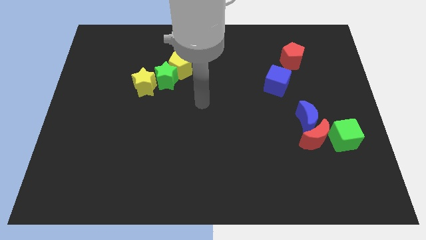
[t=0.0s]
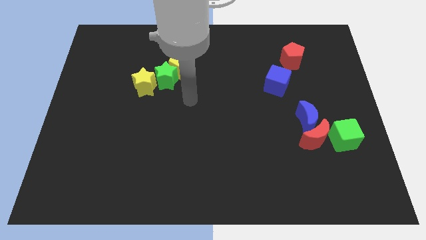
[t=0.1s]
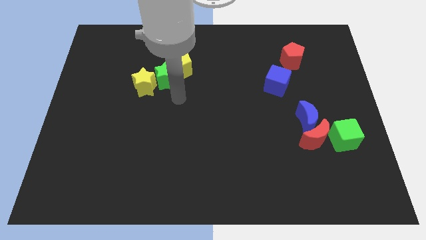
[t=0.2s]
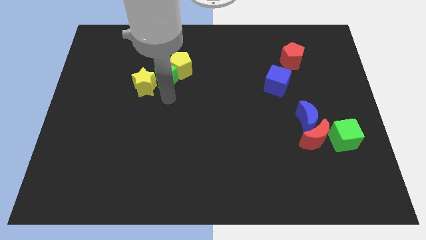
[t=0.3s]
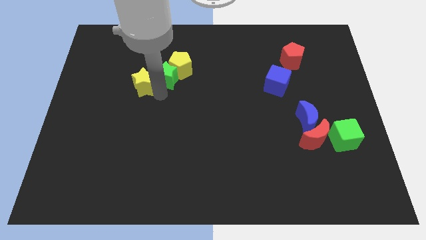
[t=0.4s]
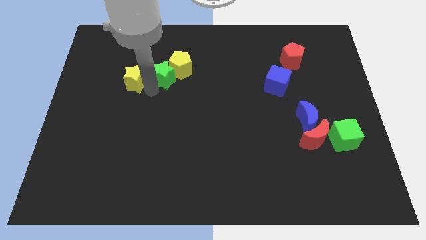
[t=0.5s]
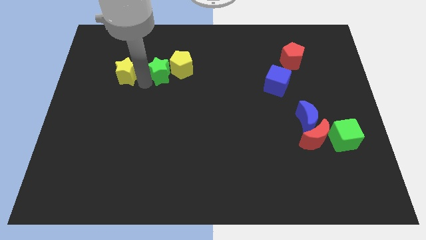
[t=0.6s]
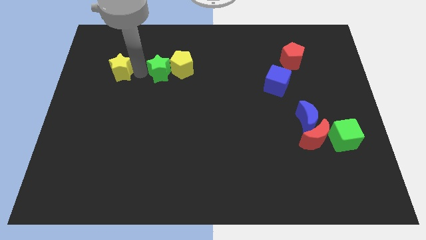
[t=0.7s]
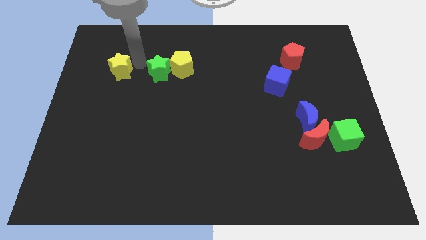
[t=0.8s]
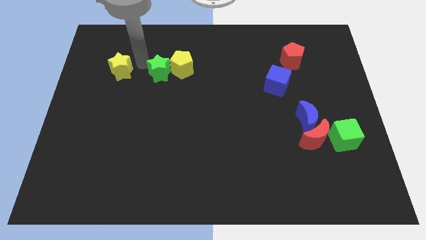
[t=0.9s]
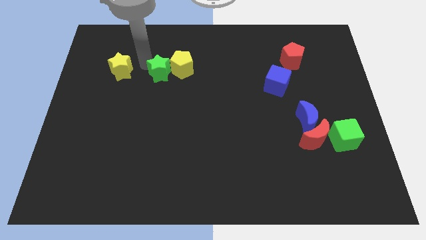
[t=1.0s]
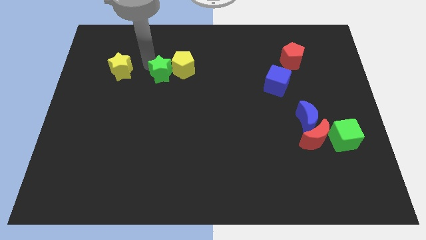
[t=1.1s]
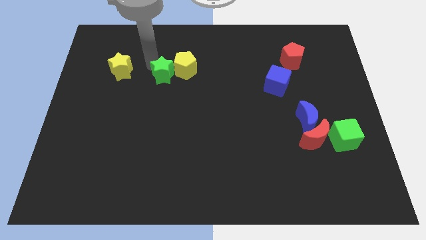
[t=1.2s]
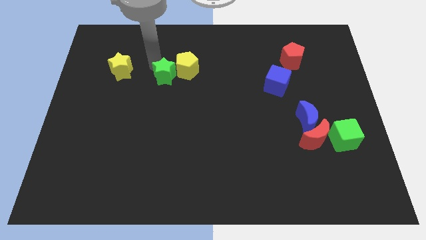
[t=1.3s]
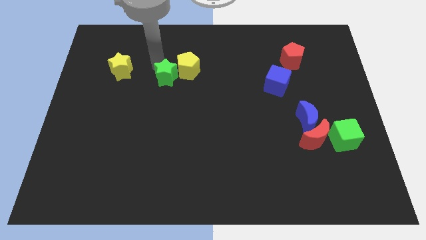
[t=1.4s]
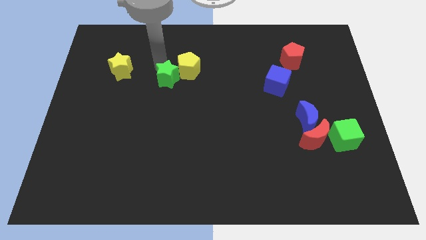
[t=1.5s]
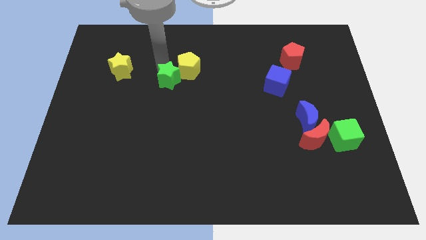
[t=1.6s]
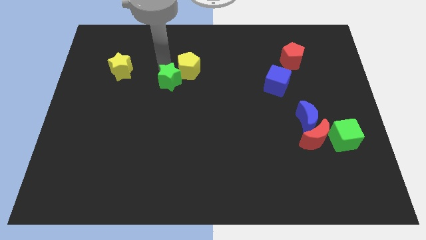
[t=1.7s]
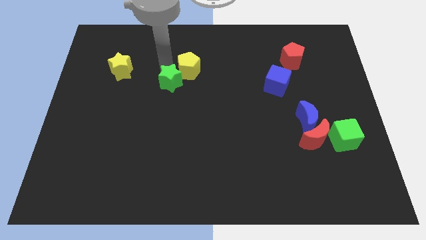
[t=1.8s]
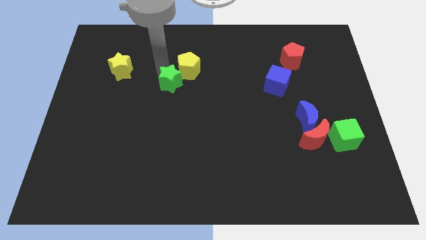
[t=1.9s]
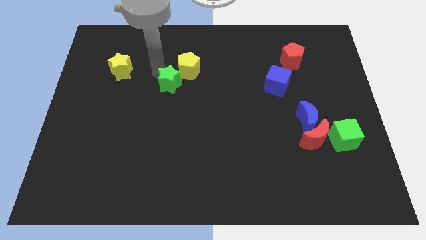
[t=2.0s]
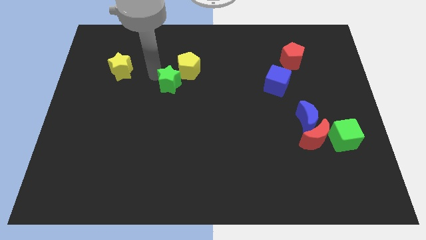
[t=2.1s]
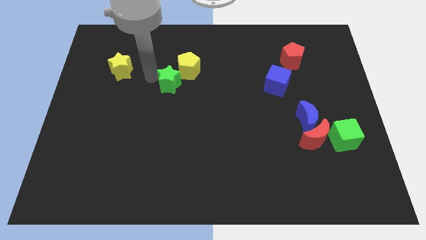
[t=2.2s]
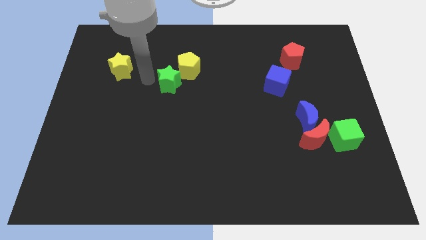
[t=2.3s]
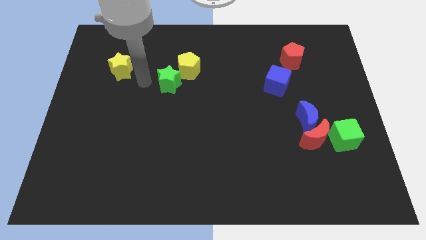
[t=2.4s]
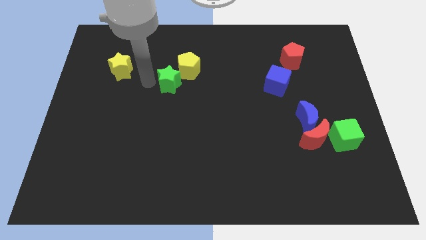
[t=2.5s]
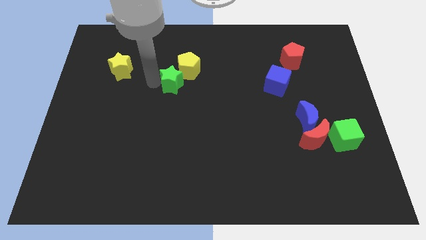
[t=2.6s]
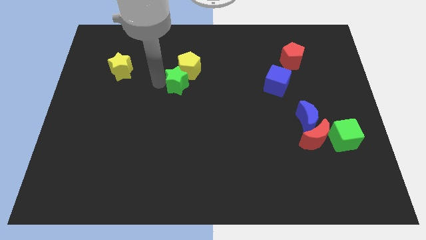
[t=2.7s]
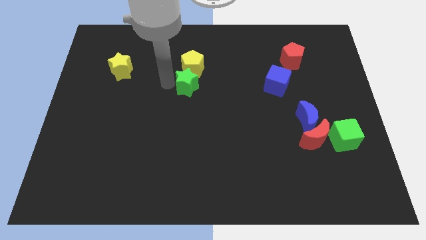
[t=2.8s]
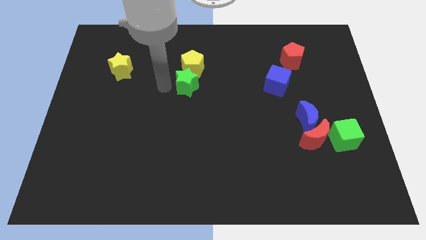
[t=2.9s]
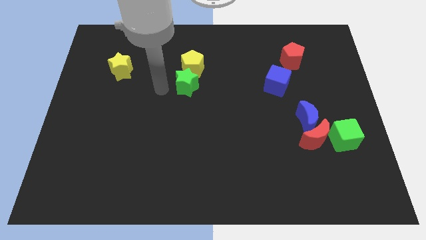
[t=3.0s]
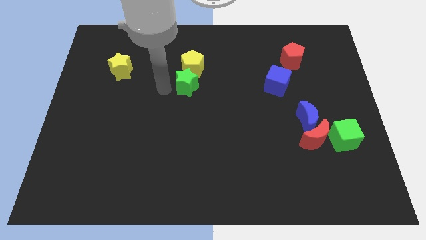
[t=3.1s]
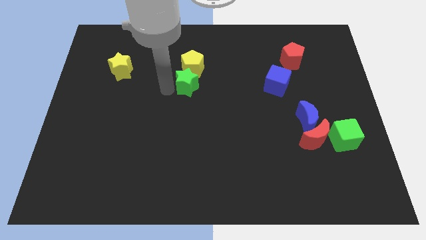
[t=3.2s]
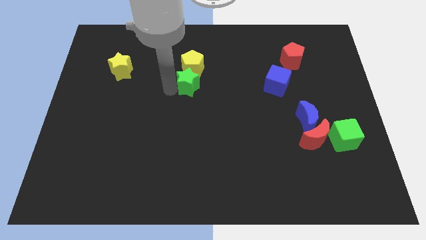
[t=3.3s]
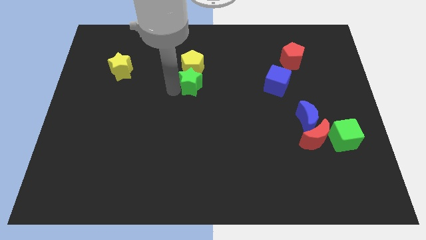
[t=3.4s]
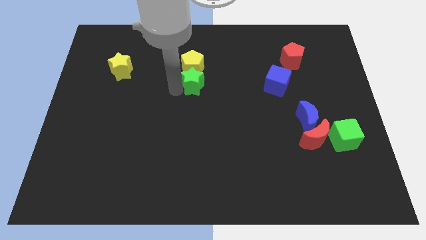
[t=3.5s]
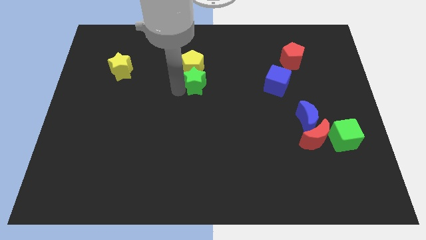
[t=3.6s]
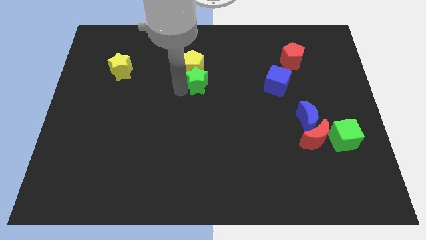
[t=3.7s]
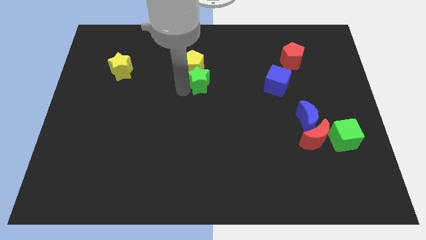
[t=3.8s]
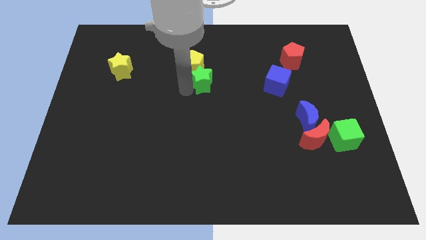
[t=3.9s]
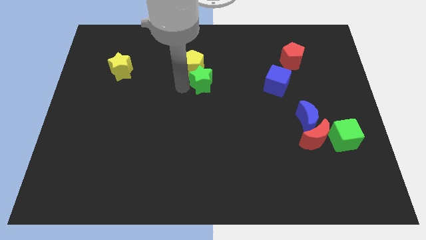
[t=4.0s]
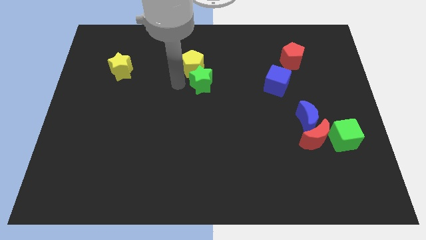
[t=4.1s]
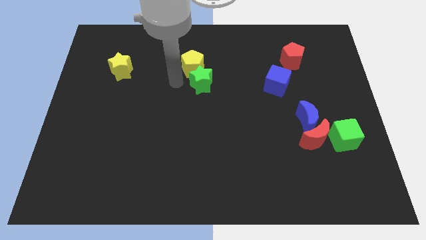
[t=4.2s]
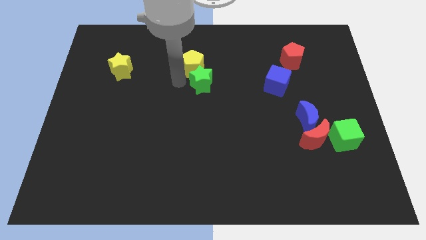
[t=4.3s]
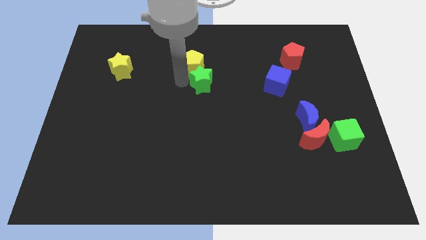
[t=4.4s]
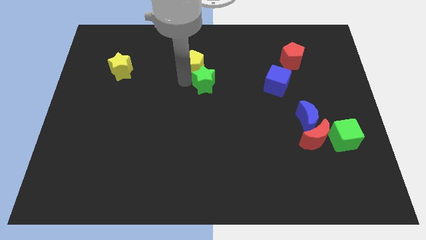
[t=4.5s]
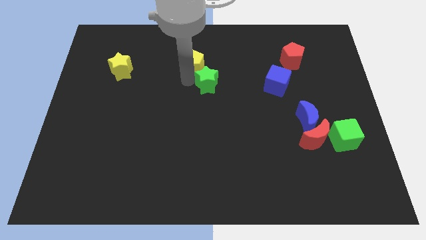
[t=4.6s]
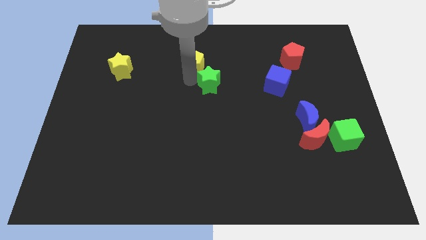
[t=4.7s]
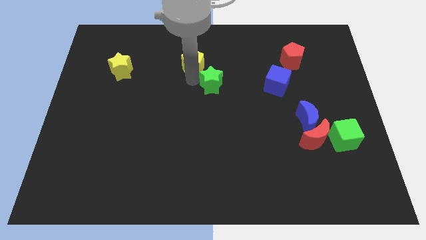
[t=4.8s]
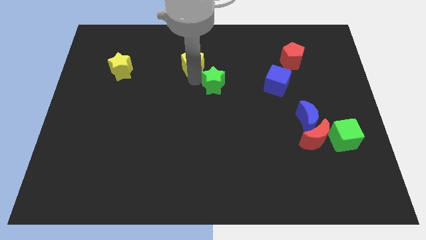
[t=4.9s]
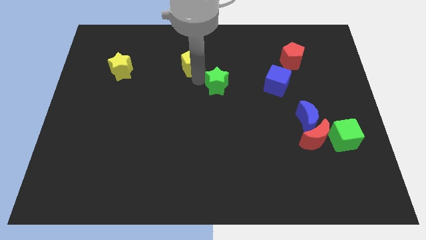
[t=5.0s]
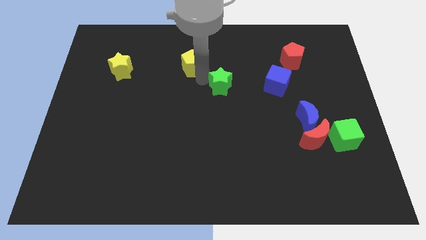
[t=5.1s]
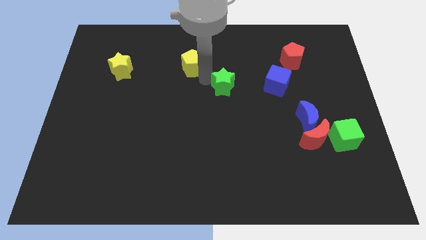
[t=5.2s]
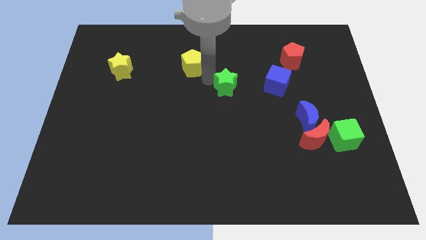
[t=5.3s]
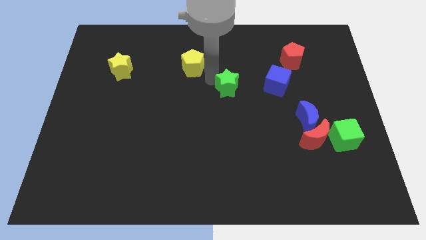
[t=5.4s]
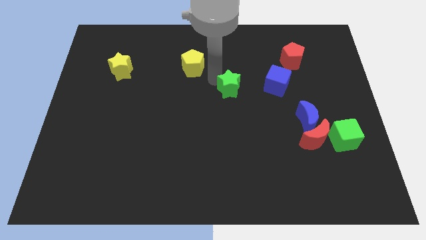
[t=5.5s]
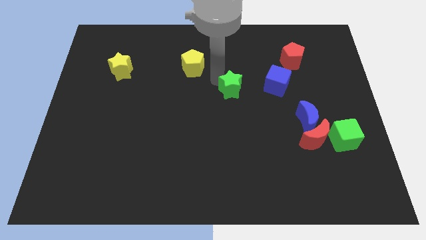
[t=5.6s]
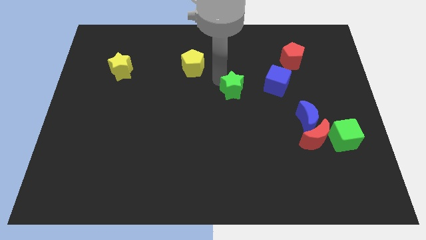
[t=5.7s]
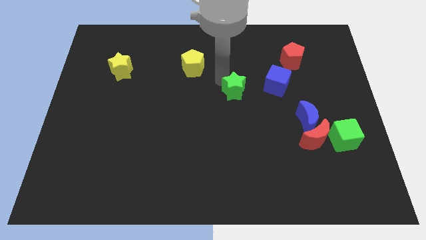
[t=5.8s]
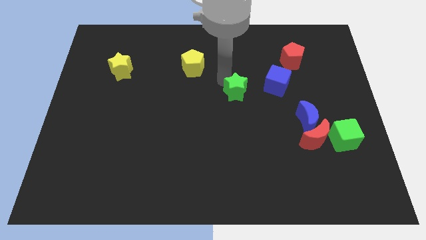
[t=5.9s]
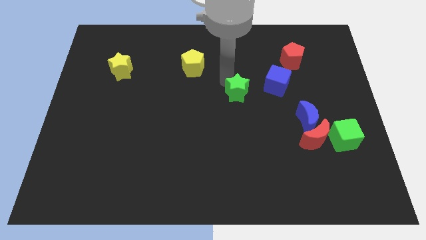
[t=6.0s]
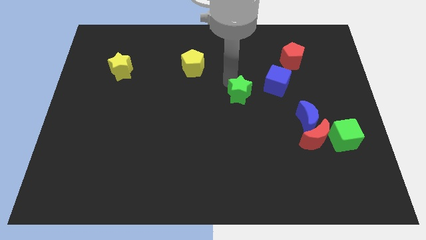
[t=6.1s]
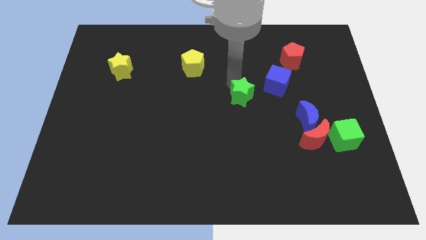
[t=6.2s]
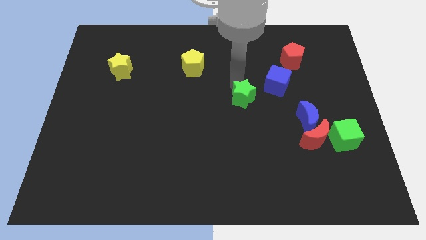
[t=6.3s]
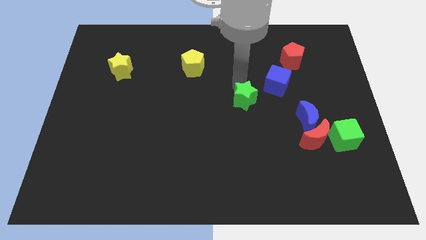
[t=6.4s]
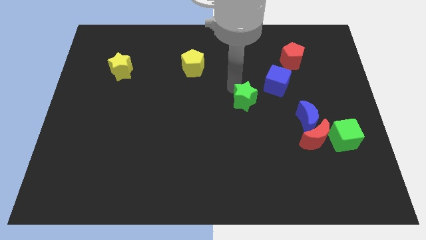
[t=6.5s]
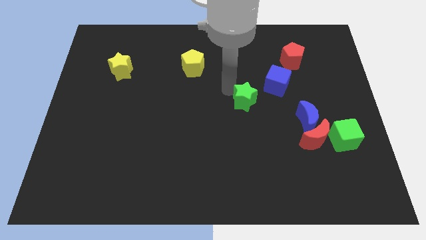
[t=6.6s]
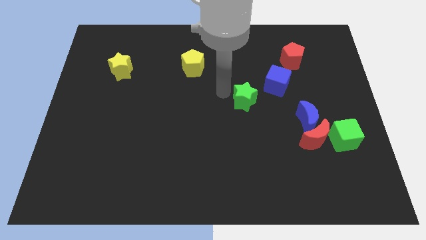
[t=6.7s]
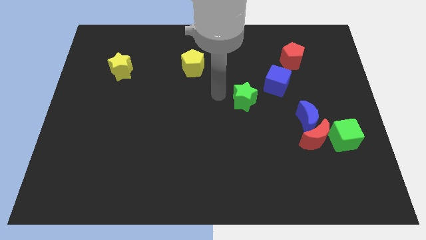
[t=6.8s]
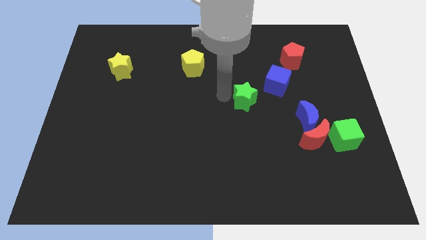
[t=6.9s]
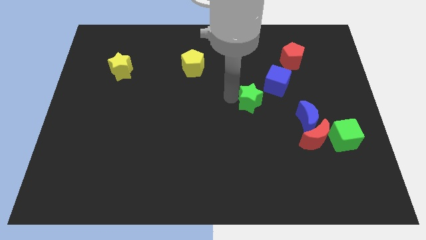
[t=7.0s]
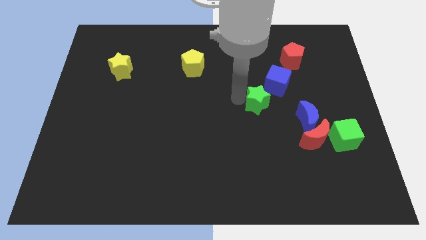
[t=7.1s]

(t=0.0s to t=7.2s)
move the green star right

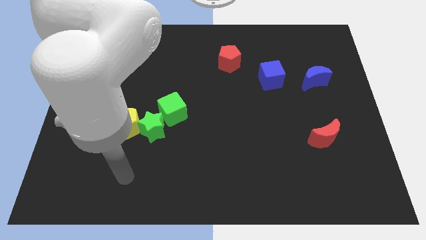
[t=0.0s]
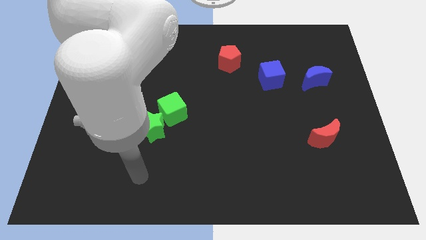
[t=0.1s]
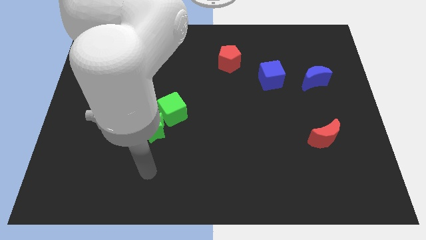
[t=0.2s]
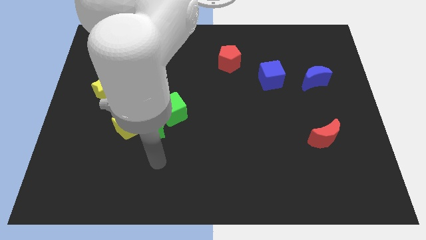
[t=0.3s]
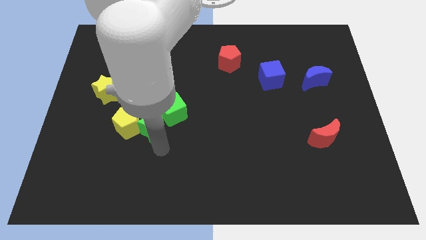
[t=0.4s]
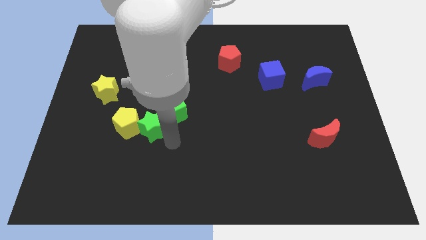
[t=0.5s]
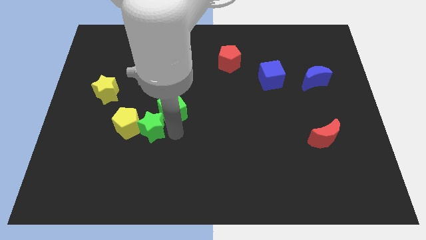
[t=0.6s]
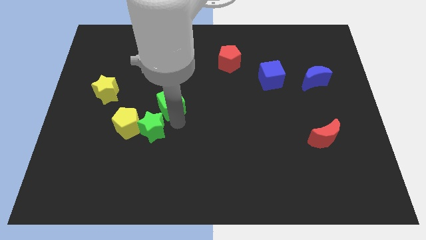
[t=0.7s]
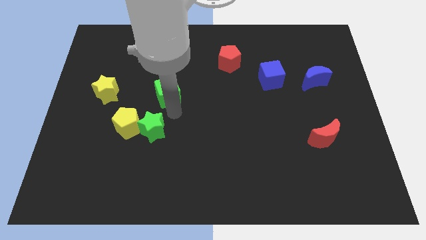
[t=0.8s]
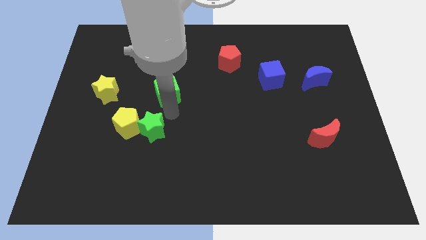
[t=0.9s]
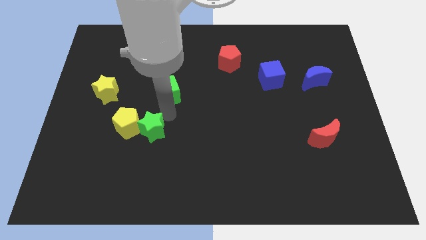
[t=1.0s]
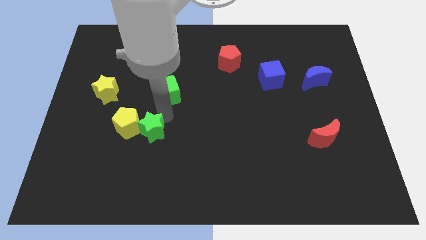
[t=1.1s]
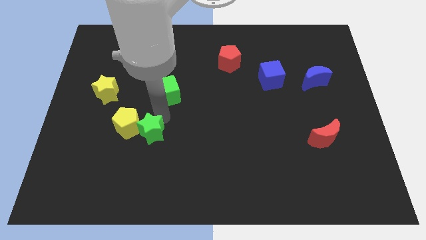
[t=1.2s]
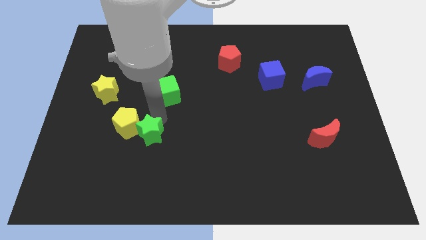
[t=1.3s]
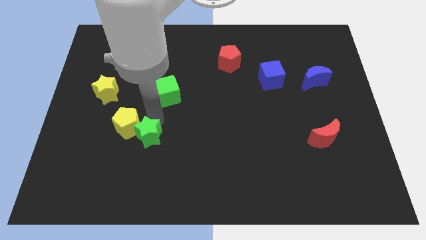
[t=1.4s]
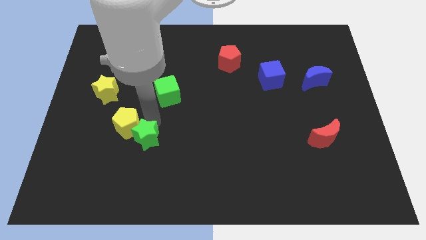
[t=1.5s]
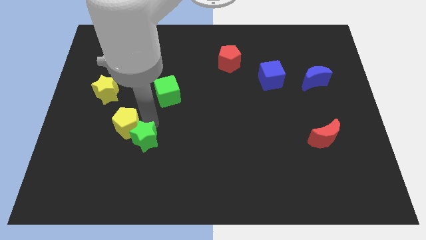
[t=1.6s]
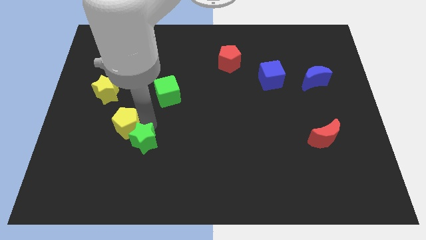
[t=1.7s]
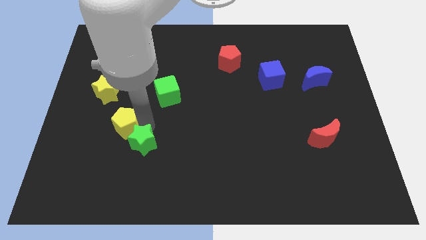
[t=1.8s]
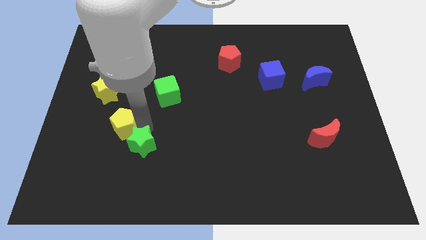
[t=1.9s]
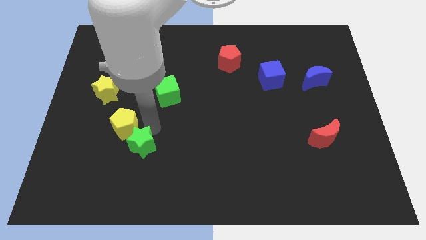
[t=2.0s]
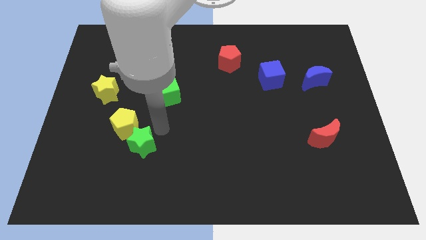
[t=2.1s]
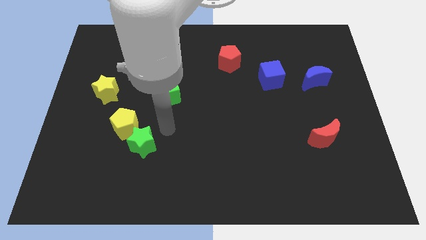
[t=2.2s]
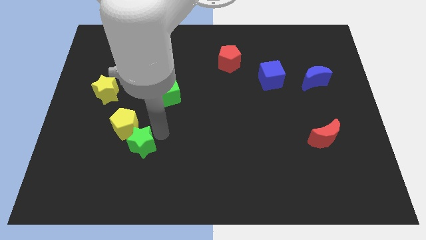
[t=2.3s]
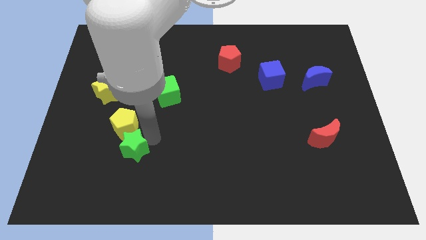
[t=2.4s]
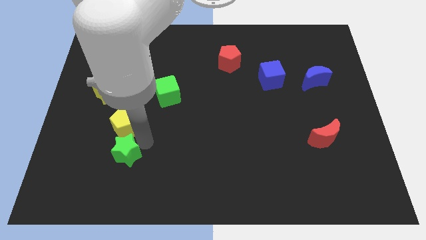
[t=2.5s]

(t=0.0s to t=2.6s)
move the green star down and left somewhat
